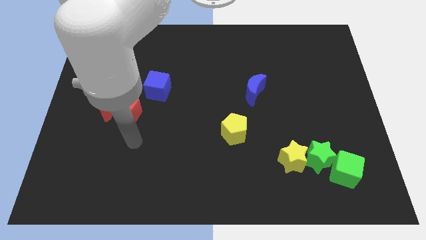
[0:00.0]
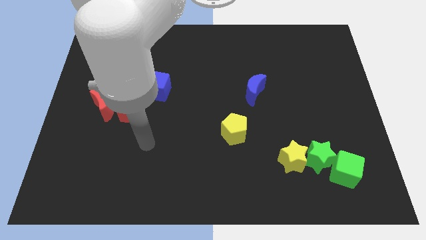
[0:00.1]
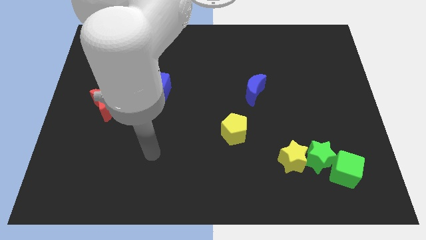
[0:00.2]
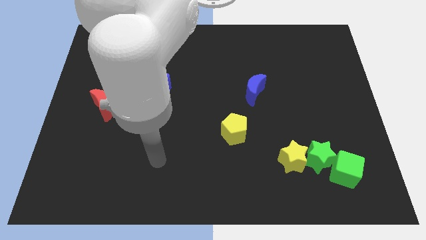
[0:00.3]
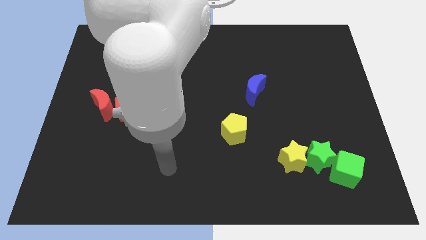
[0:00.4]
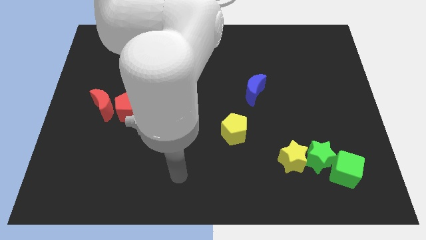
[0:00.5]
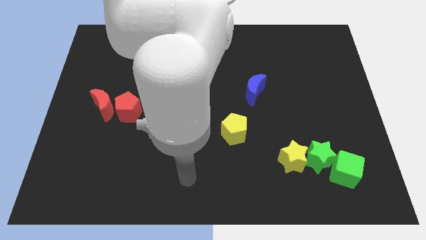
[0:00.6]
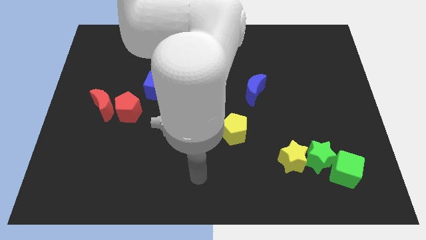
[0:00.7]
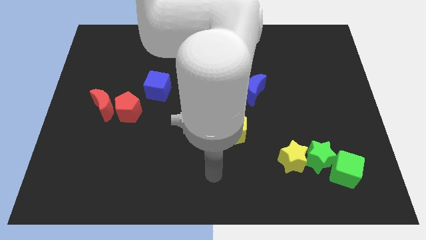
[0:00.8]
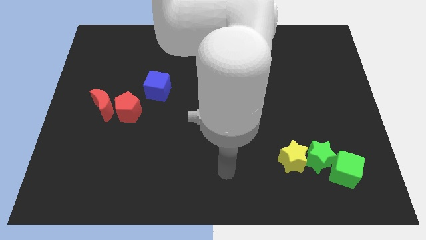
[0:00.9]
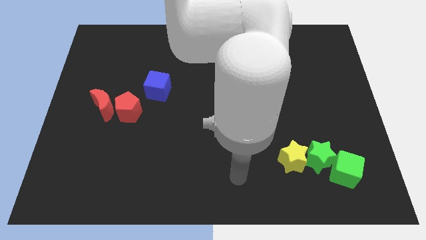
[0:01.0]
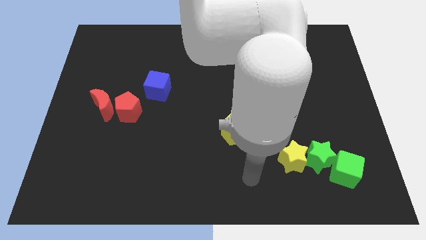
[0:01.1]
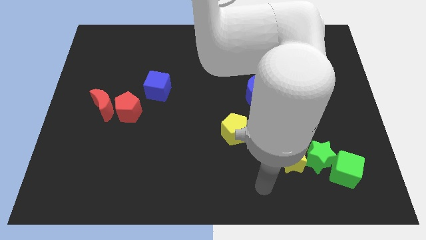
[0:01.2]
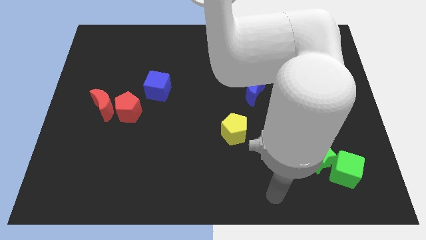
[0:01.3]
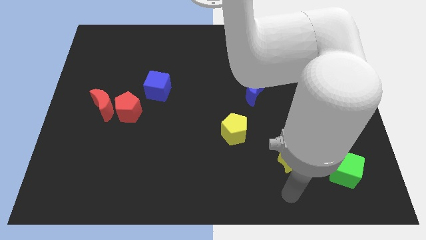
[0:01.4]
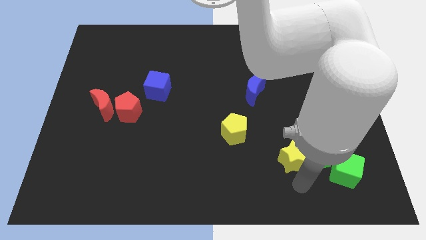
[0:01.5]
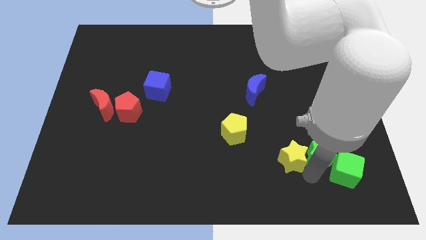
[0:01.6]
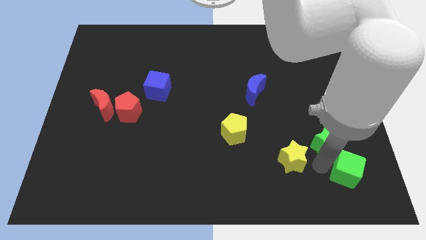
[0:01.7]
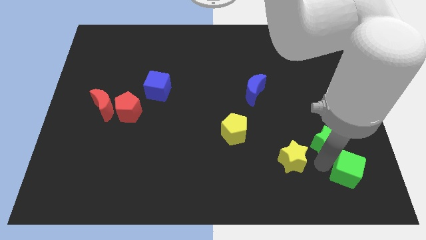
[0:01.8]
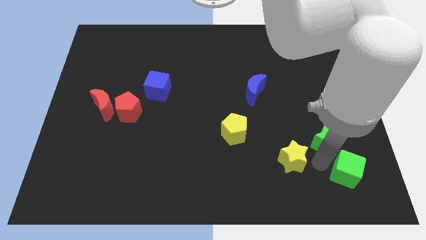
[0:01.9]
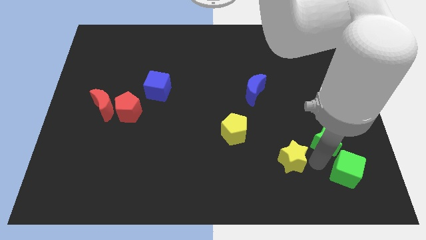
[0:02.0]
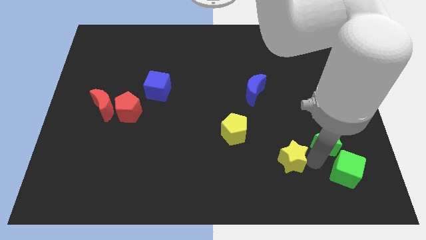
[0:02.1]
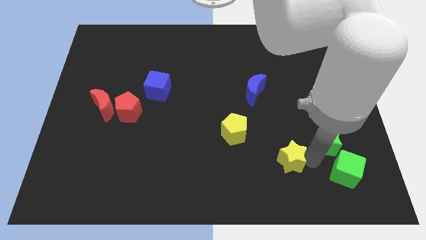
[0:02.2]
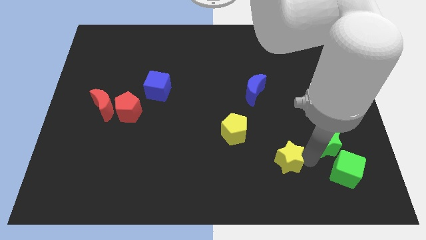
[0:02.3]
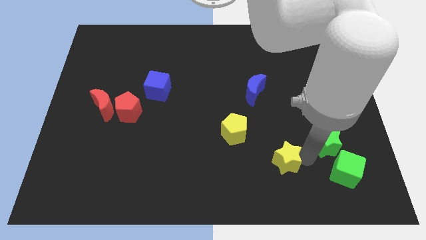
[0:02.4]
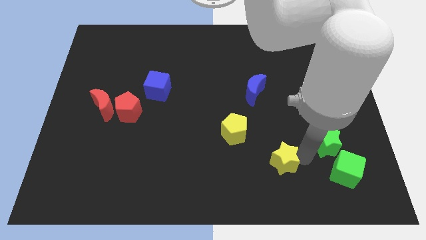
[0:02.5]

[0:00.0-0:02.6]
separate the yellow star from the green star

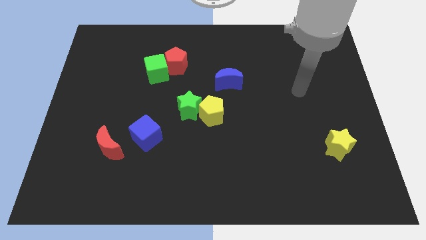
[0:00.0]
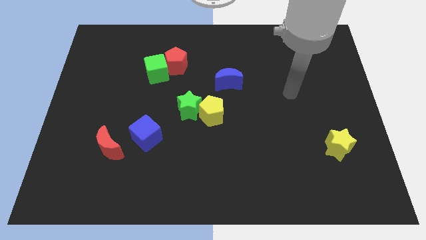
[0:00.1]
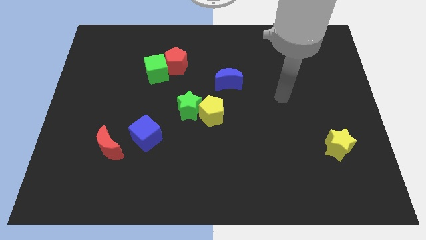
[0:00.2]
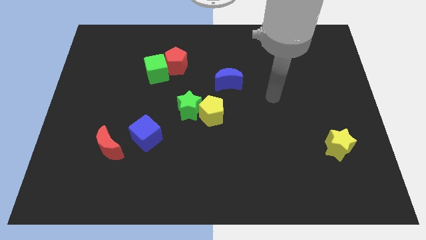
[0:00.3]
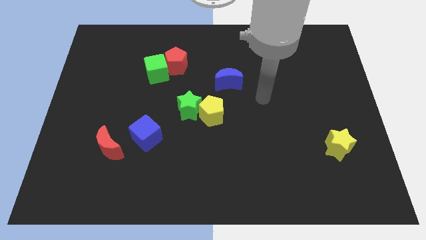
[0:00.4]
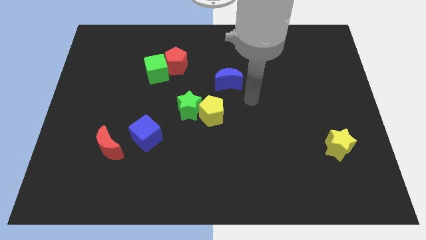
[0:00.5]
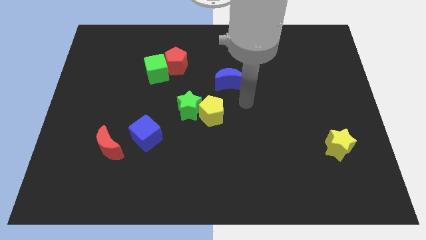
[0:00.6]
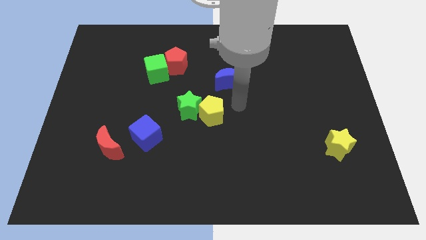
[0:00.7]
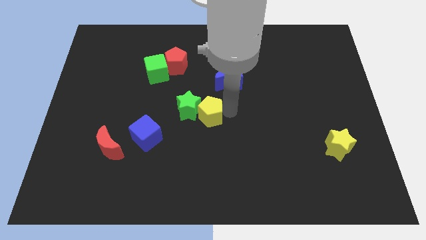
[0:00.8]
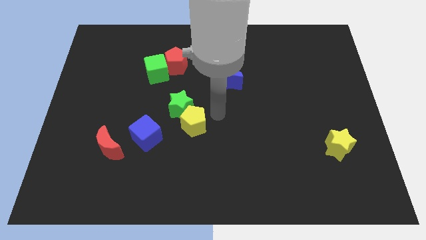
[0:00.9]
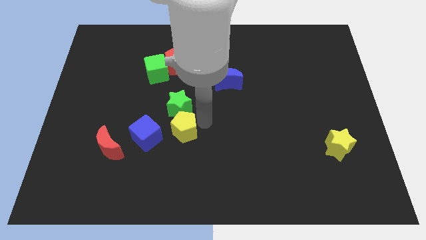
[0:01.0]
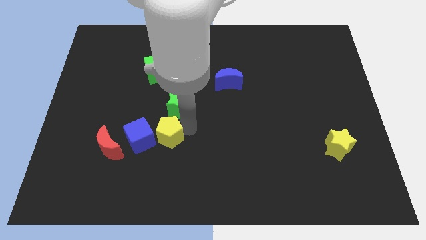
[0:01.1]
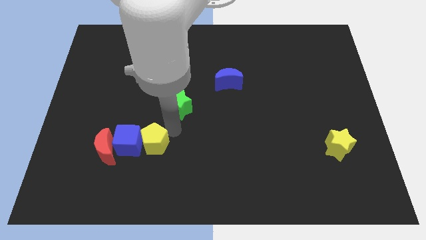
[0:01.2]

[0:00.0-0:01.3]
separate the green star from the yellow pentagon

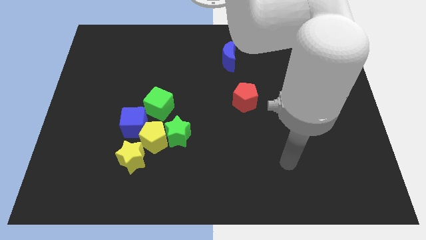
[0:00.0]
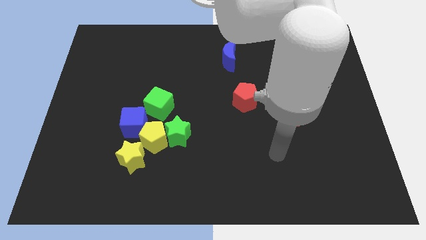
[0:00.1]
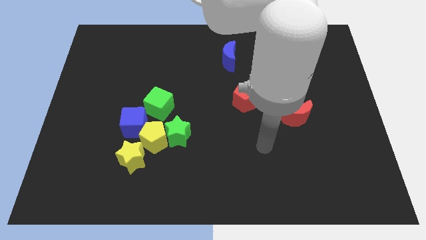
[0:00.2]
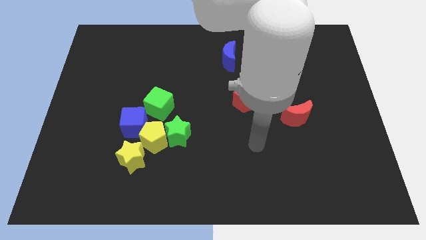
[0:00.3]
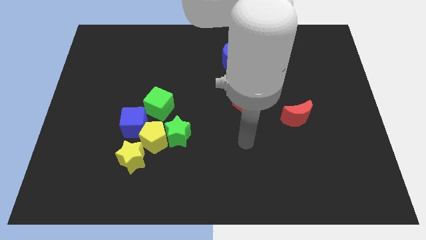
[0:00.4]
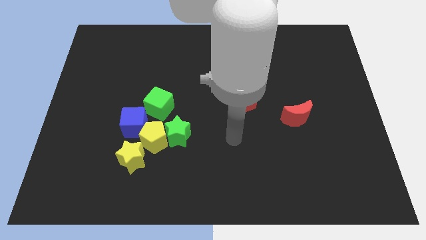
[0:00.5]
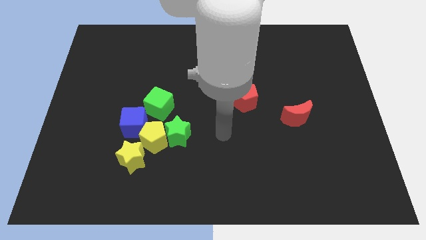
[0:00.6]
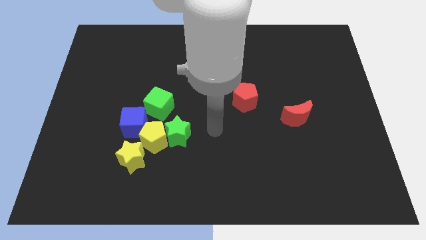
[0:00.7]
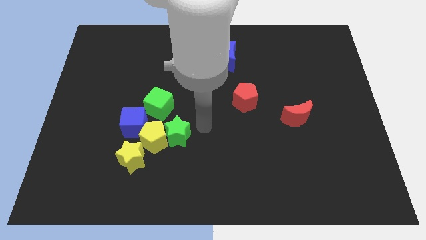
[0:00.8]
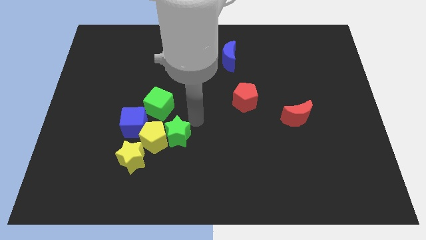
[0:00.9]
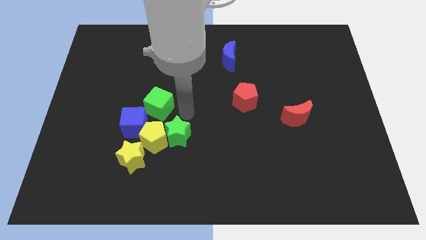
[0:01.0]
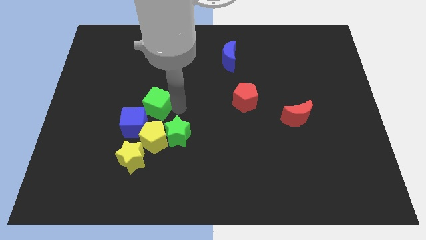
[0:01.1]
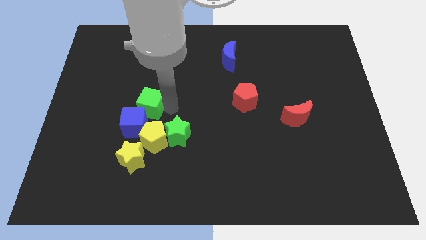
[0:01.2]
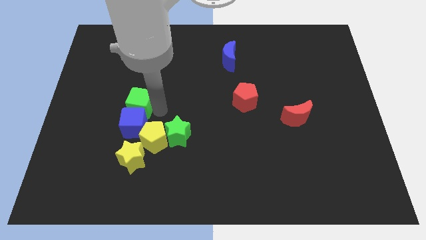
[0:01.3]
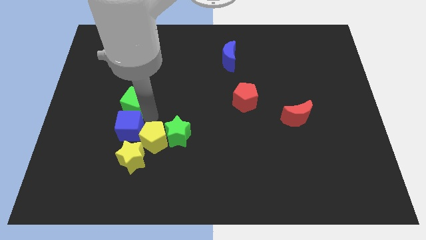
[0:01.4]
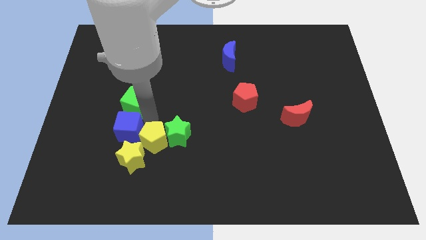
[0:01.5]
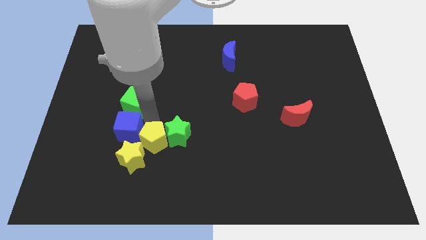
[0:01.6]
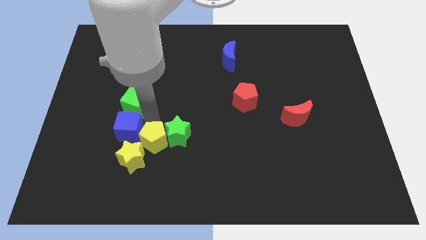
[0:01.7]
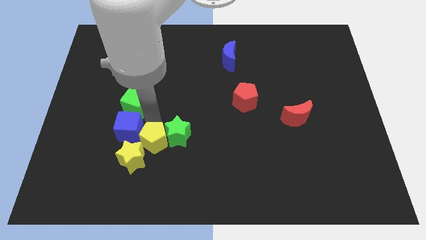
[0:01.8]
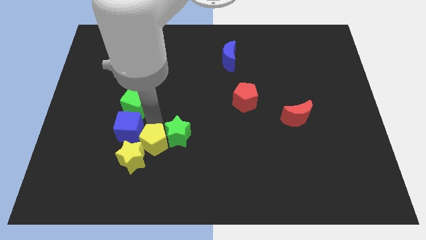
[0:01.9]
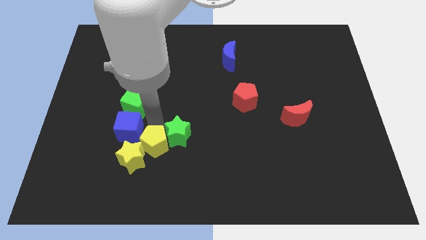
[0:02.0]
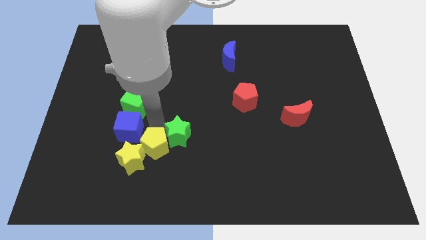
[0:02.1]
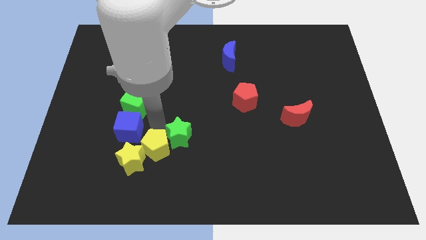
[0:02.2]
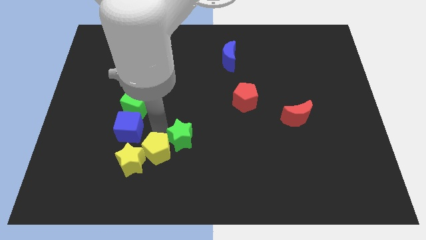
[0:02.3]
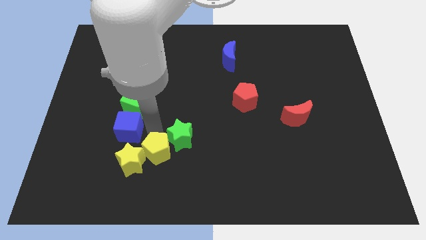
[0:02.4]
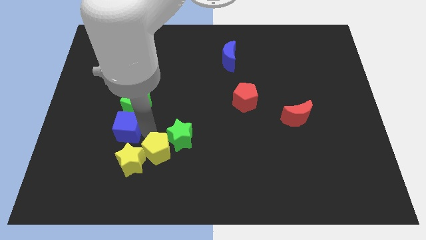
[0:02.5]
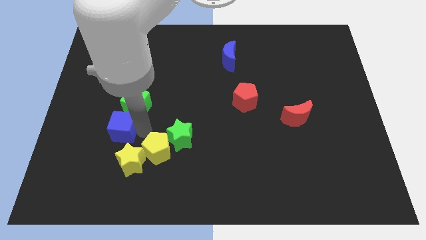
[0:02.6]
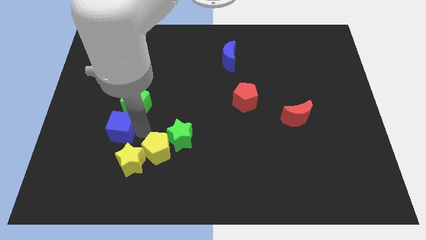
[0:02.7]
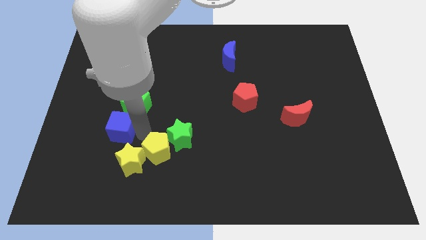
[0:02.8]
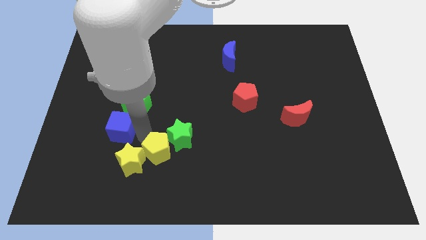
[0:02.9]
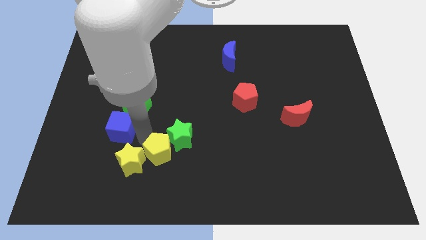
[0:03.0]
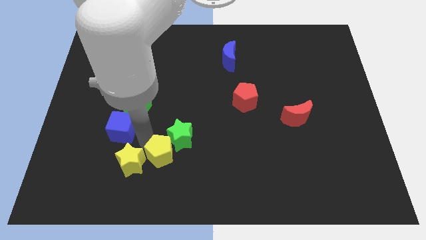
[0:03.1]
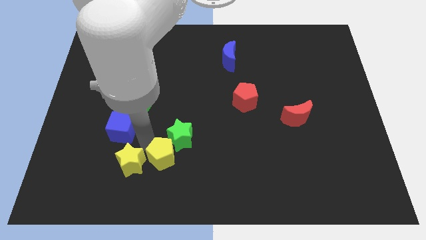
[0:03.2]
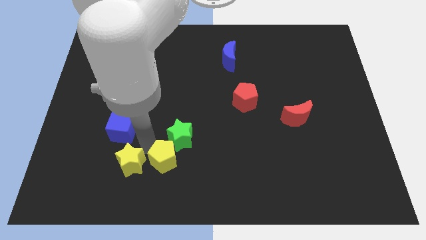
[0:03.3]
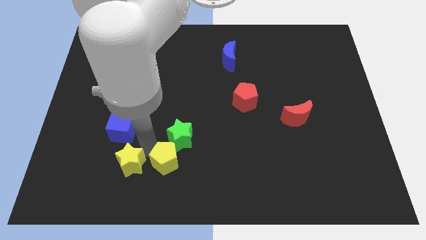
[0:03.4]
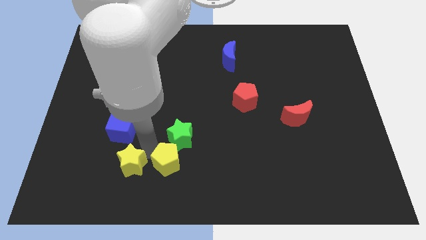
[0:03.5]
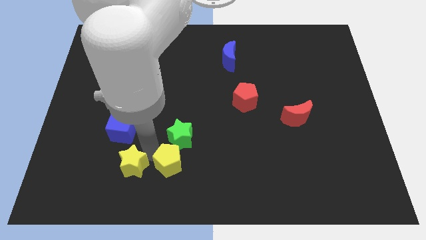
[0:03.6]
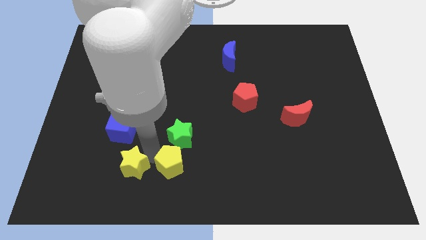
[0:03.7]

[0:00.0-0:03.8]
separate the yellow pentagon from the group

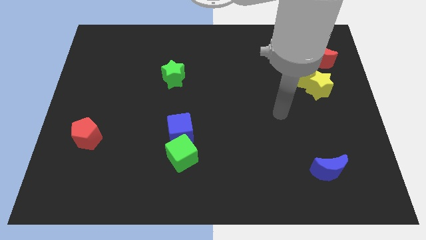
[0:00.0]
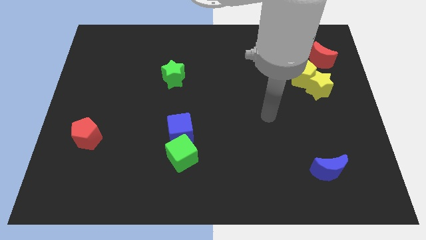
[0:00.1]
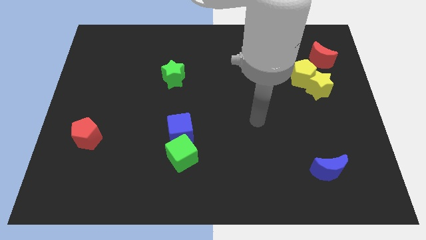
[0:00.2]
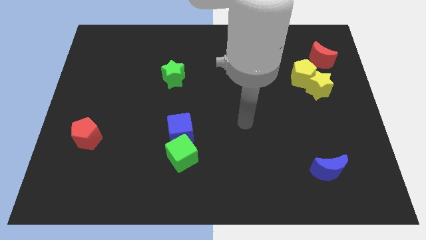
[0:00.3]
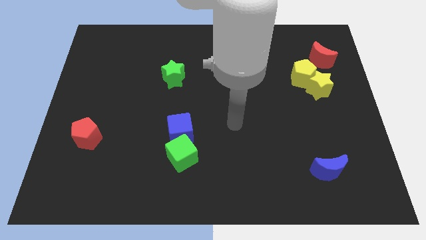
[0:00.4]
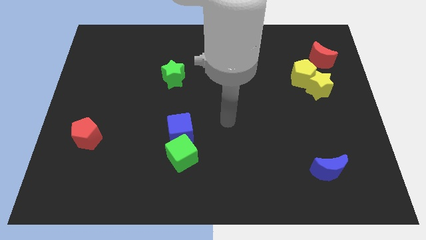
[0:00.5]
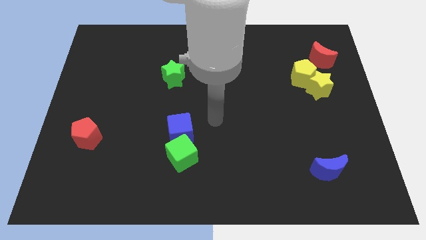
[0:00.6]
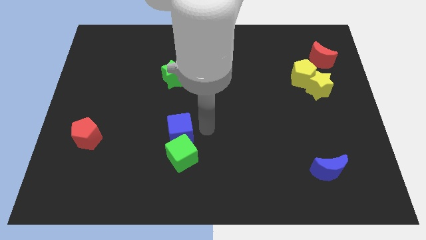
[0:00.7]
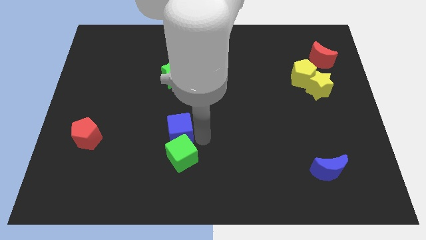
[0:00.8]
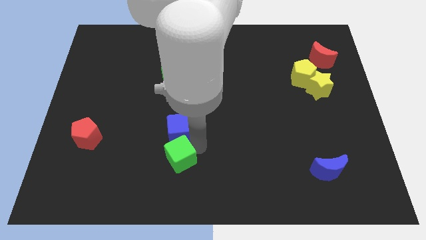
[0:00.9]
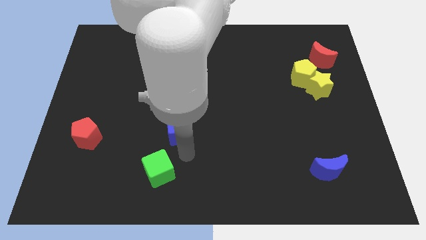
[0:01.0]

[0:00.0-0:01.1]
move the blue cube away from the green cube

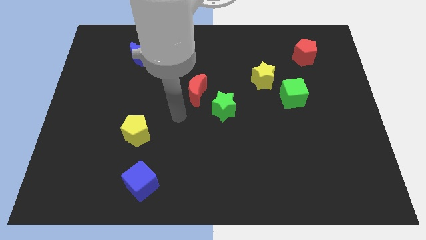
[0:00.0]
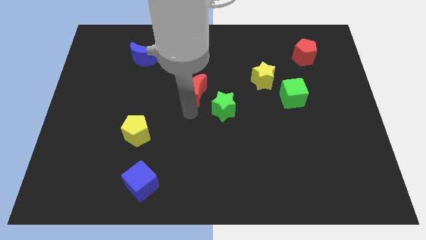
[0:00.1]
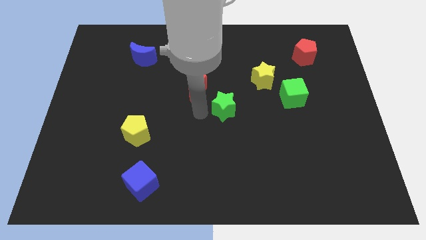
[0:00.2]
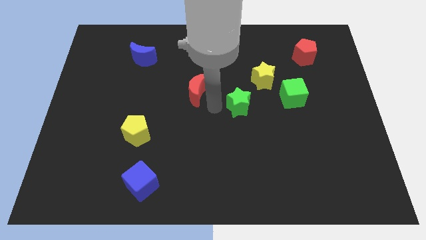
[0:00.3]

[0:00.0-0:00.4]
move the red moon away from the green star

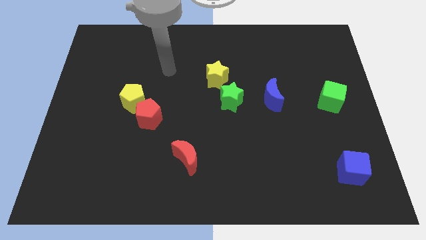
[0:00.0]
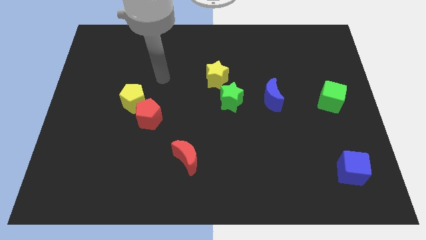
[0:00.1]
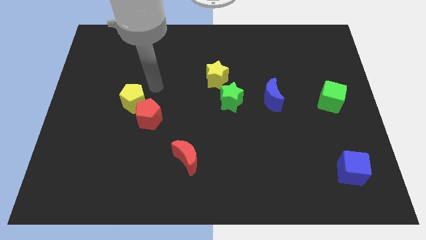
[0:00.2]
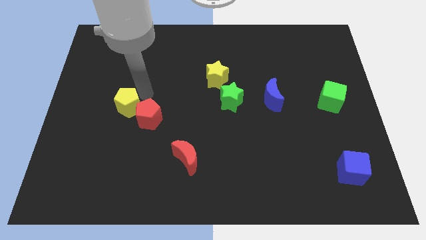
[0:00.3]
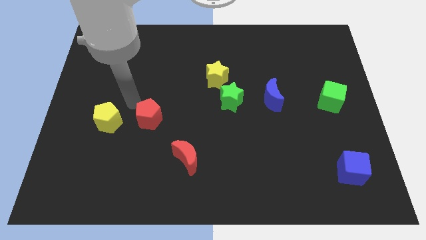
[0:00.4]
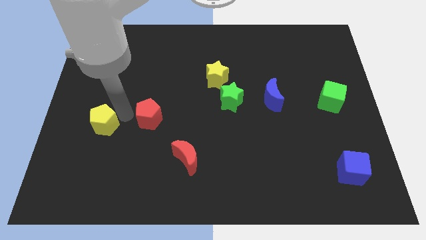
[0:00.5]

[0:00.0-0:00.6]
separate the red pentagon from the yellow pentagon
